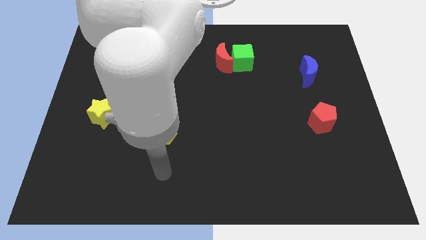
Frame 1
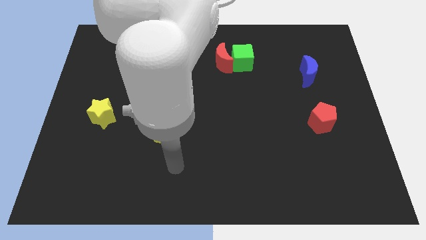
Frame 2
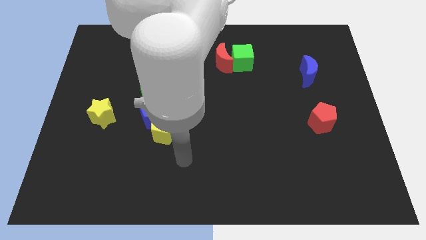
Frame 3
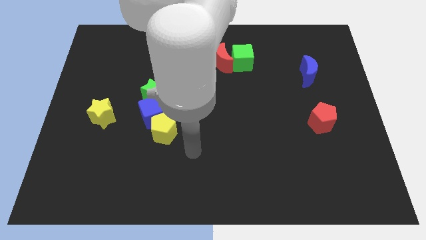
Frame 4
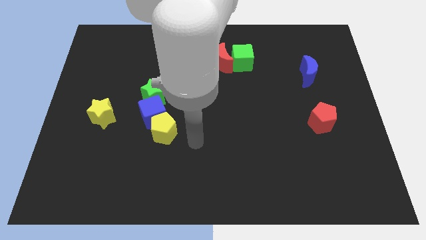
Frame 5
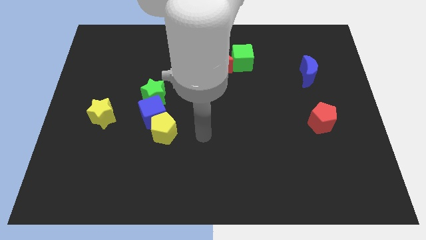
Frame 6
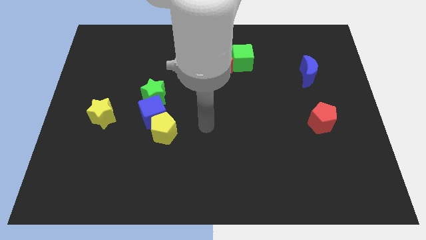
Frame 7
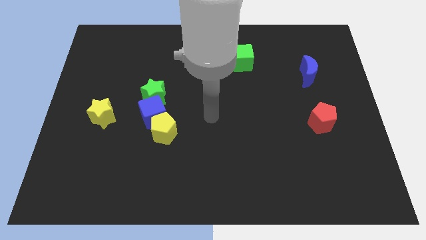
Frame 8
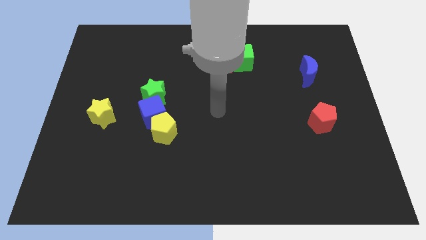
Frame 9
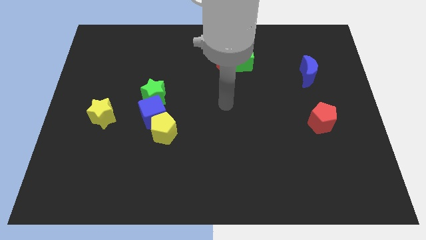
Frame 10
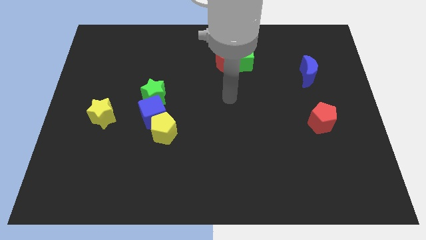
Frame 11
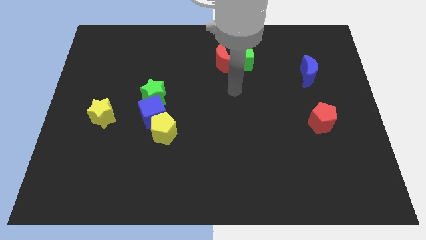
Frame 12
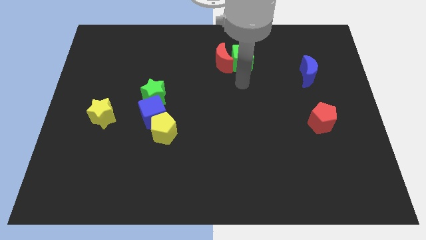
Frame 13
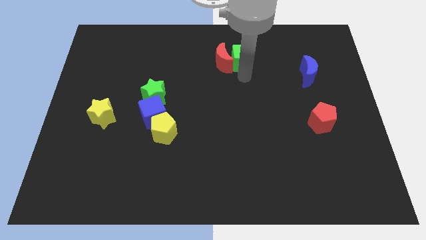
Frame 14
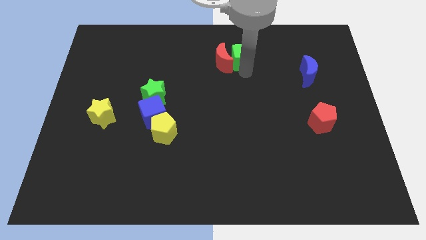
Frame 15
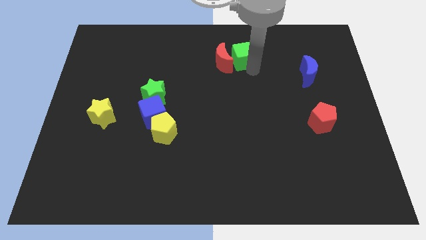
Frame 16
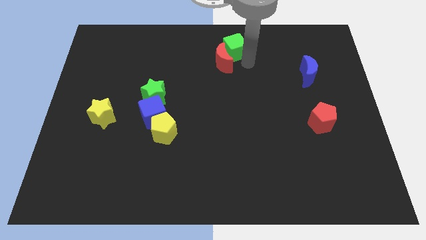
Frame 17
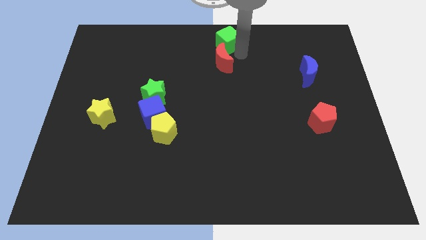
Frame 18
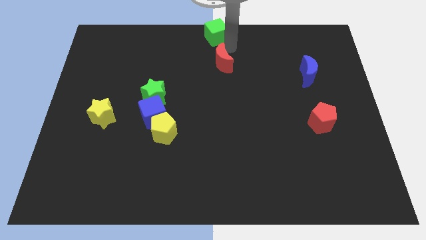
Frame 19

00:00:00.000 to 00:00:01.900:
separate the red moon from the green cube

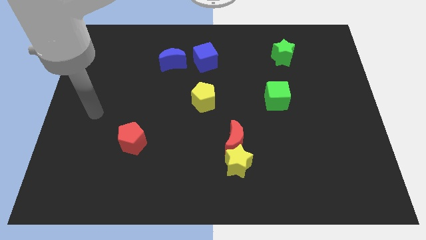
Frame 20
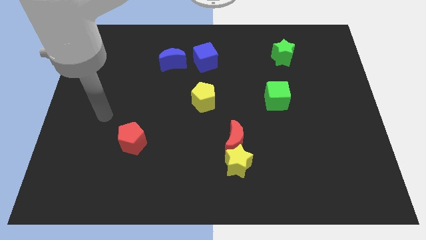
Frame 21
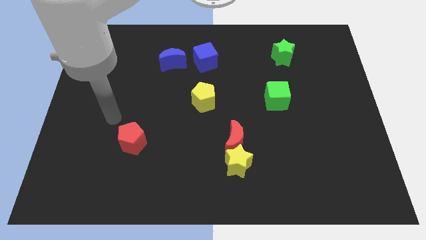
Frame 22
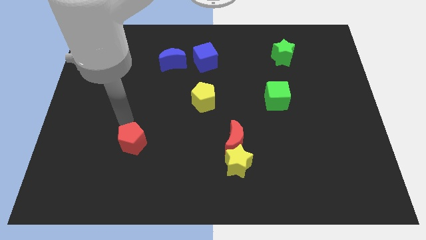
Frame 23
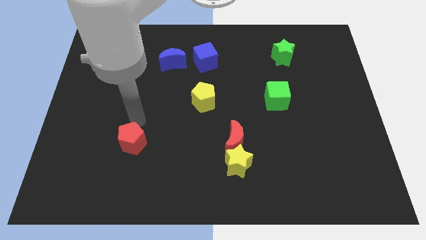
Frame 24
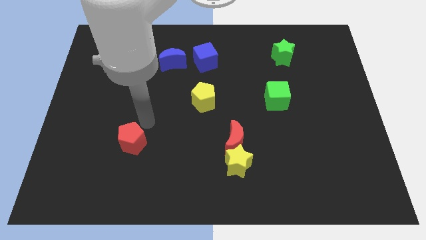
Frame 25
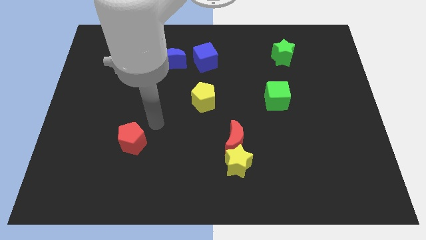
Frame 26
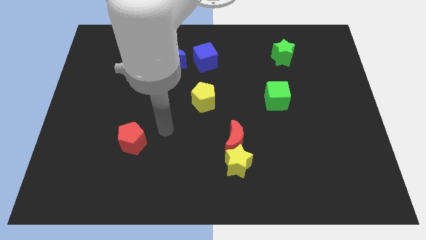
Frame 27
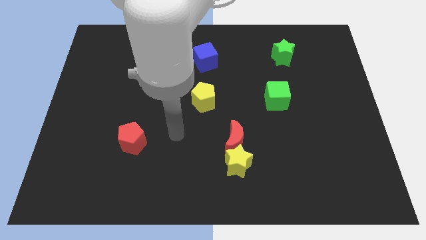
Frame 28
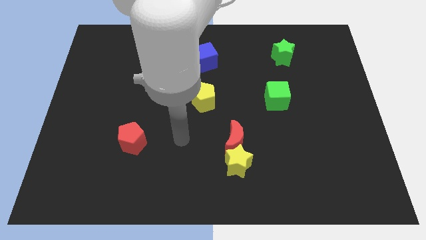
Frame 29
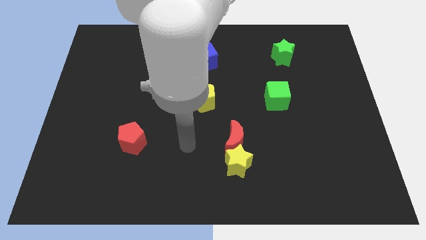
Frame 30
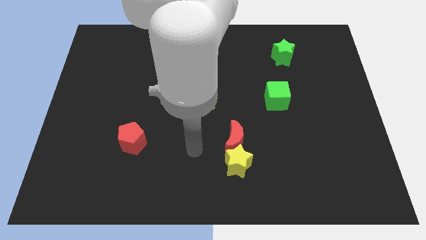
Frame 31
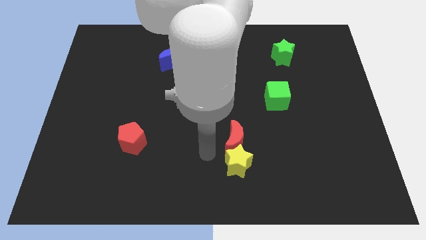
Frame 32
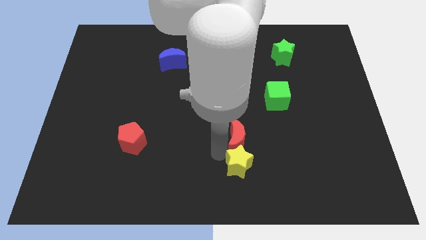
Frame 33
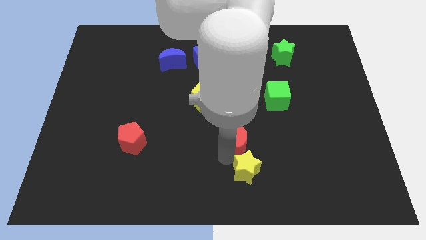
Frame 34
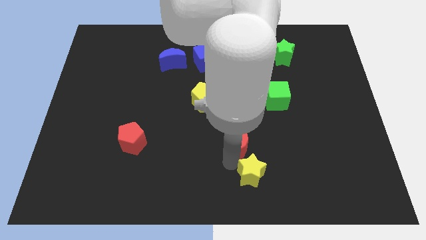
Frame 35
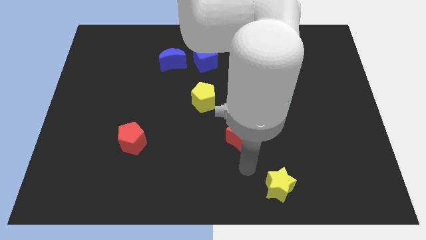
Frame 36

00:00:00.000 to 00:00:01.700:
pull the red moon apart from the yellow star

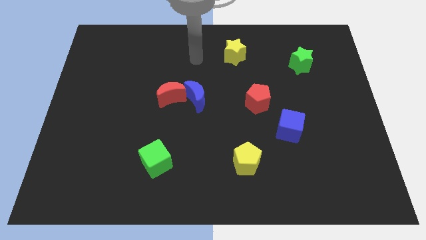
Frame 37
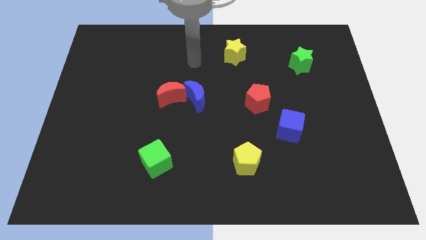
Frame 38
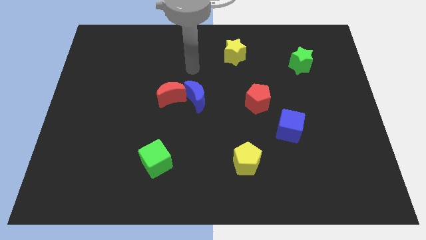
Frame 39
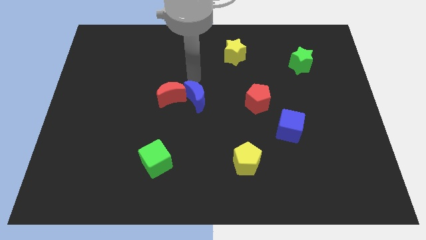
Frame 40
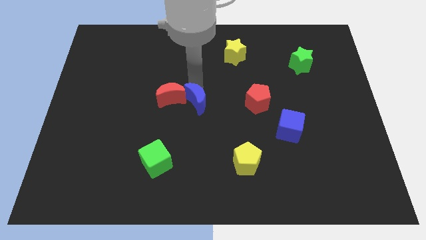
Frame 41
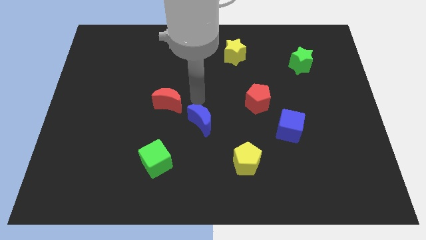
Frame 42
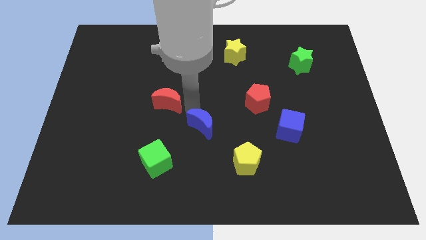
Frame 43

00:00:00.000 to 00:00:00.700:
separate the red moon from the blue moon

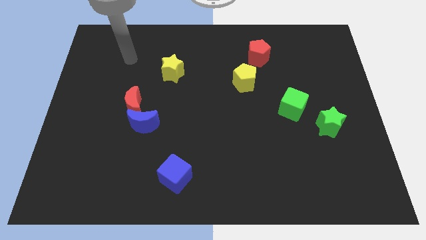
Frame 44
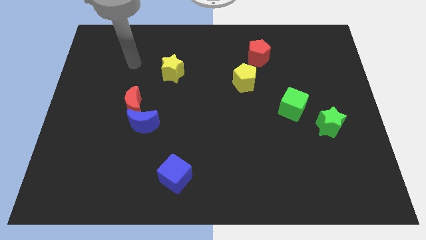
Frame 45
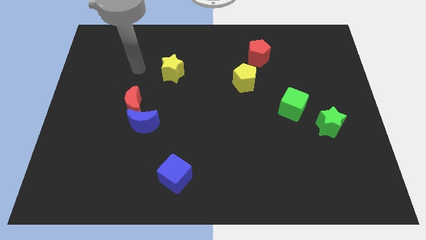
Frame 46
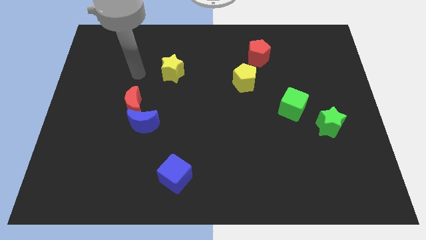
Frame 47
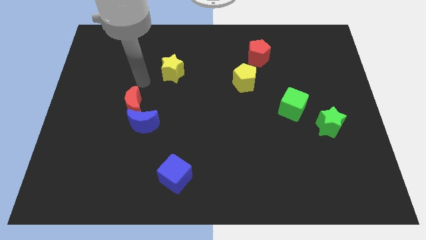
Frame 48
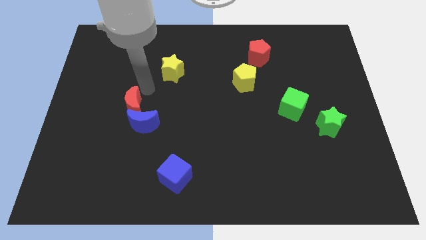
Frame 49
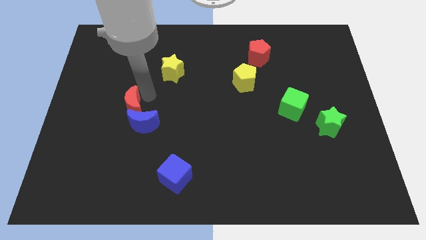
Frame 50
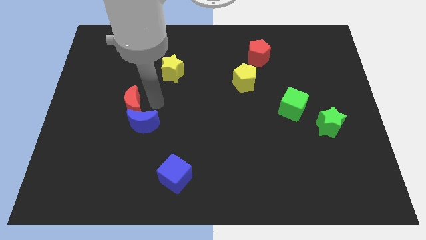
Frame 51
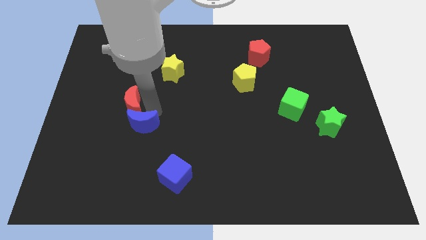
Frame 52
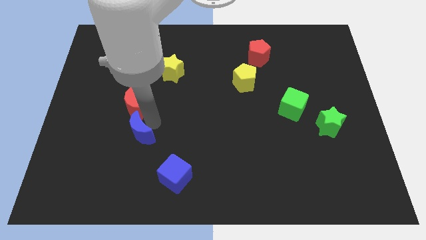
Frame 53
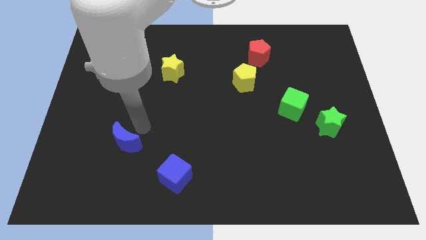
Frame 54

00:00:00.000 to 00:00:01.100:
move the red moon away from the blue moon

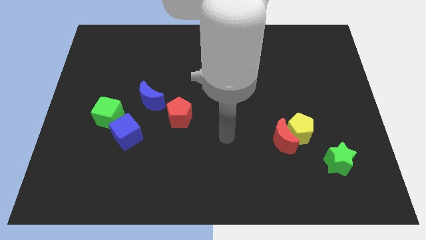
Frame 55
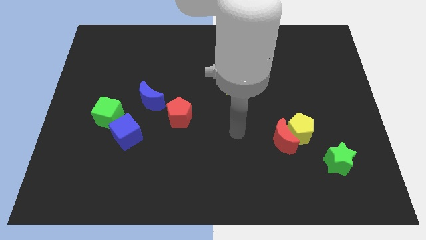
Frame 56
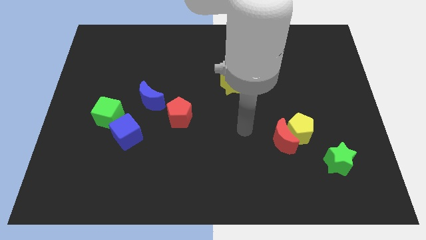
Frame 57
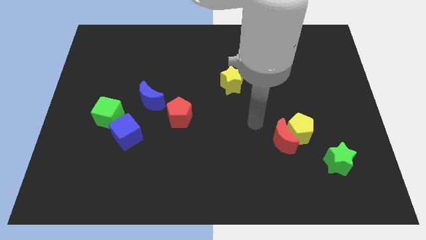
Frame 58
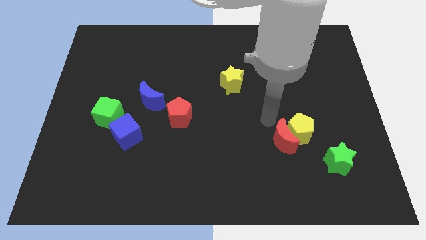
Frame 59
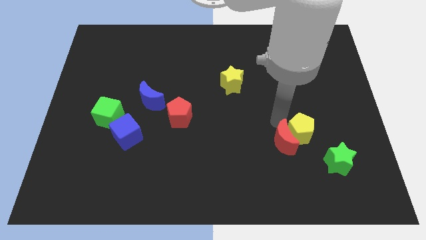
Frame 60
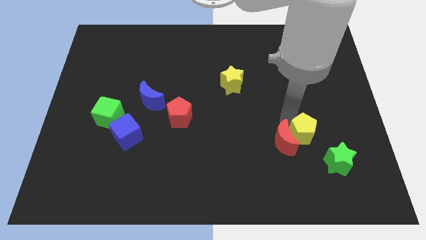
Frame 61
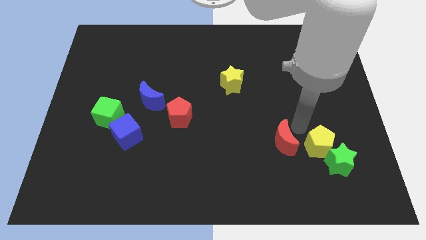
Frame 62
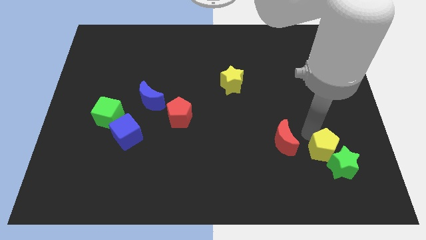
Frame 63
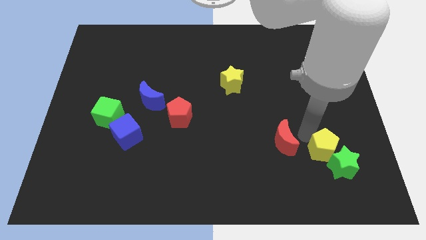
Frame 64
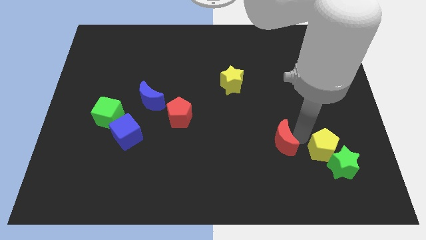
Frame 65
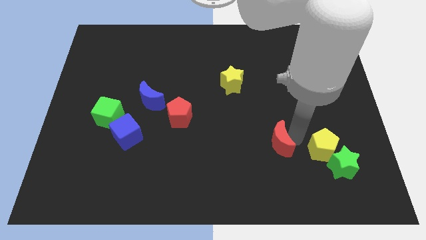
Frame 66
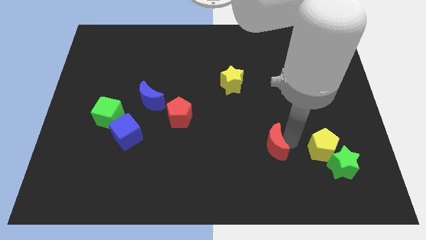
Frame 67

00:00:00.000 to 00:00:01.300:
move the red moon away from the yellow pentagon

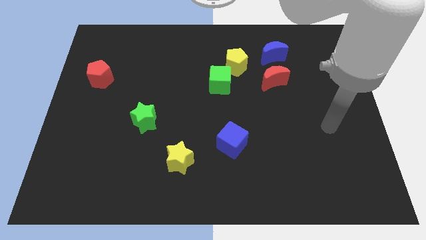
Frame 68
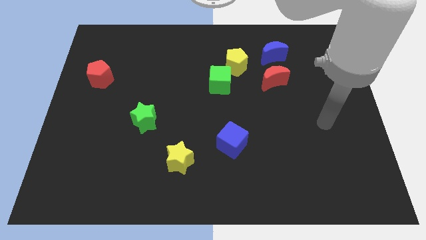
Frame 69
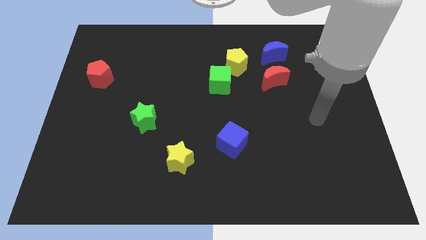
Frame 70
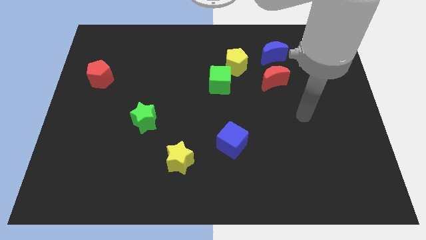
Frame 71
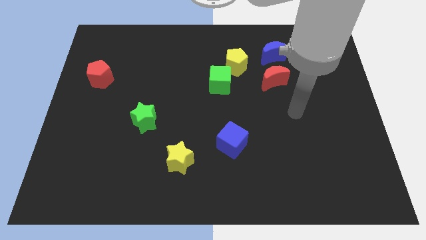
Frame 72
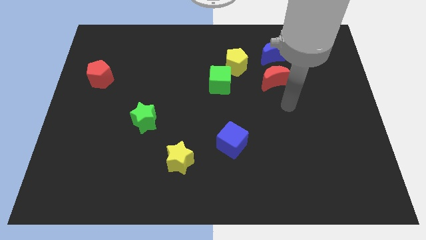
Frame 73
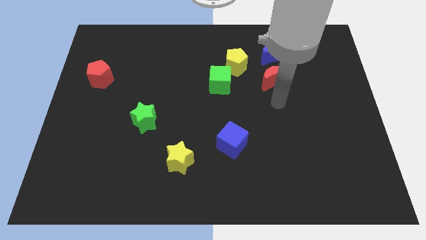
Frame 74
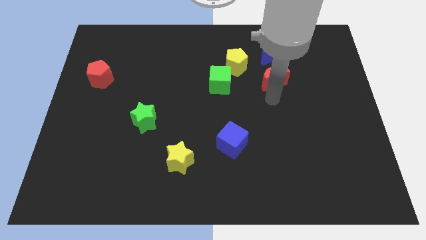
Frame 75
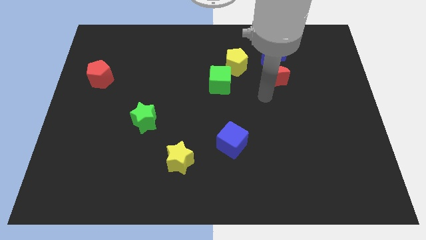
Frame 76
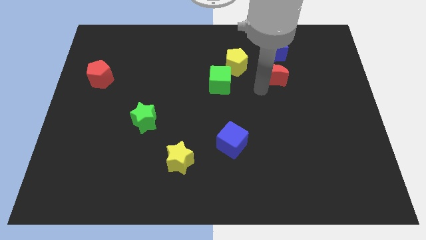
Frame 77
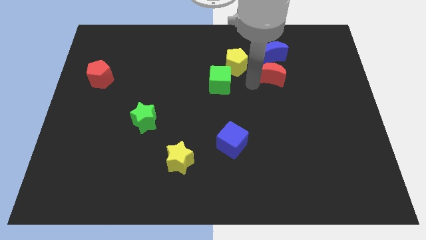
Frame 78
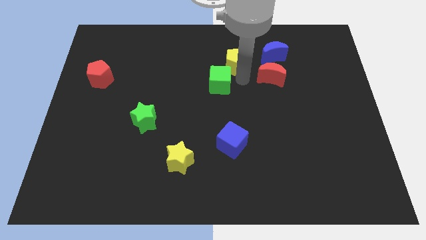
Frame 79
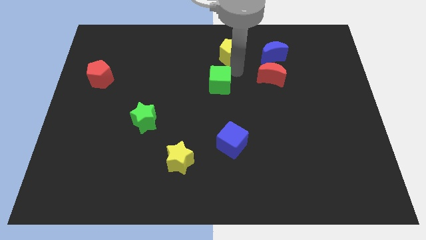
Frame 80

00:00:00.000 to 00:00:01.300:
pull the green cube apart from the yellow pentagon

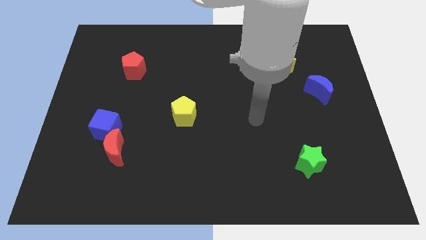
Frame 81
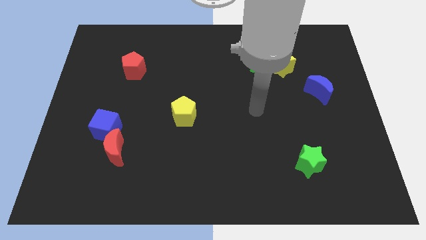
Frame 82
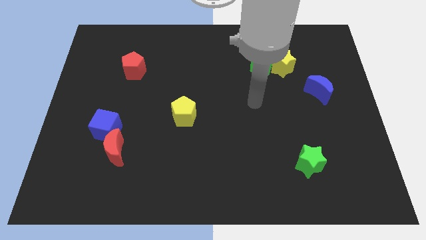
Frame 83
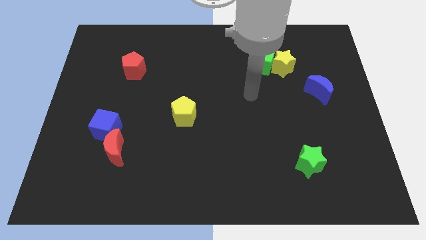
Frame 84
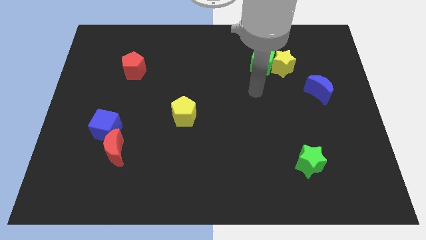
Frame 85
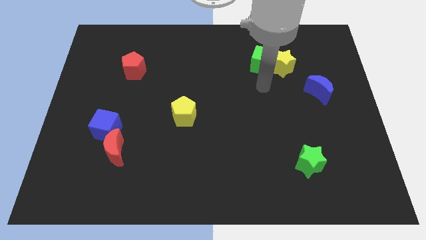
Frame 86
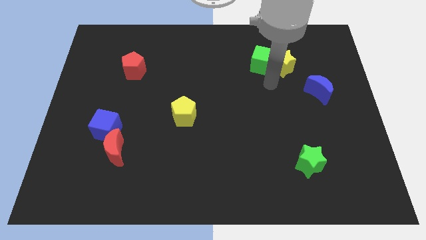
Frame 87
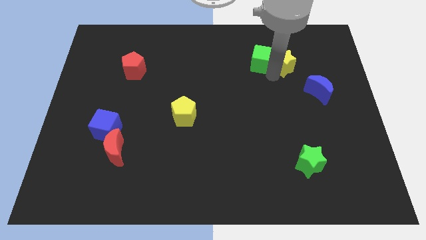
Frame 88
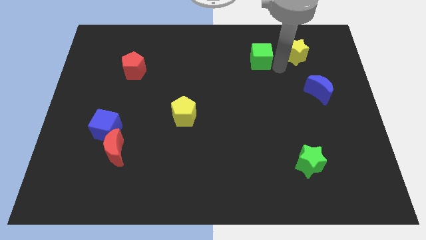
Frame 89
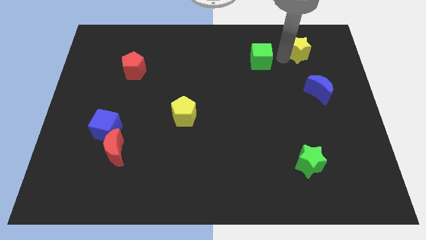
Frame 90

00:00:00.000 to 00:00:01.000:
move the green cube away from the yellow star

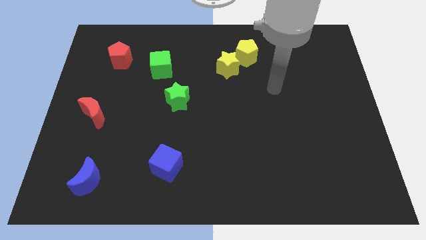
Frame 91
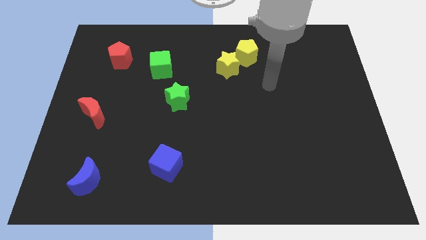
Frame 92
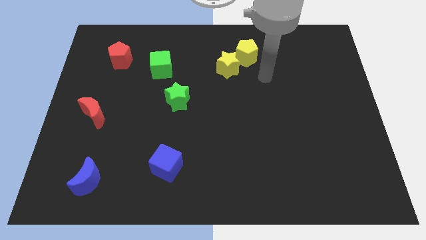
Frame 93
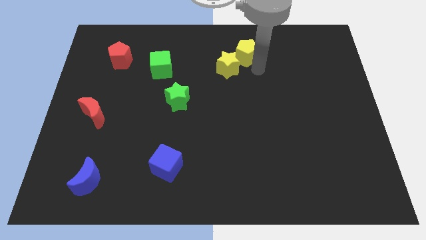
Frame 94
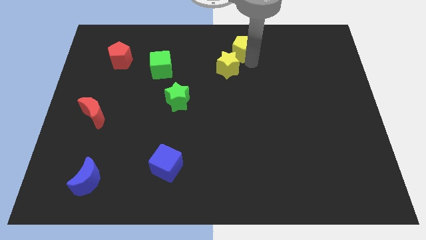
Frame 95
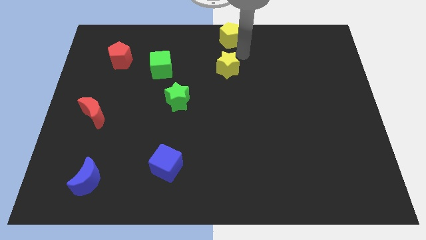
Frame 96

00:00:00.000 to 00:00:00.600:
separate the yellow star from the yellow pentagon
